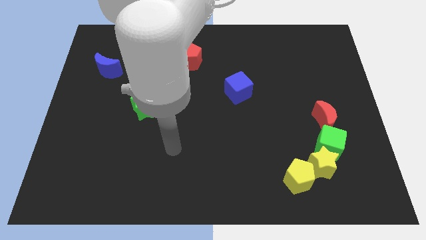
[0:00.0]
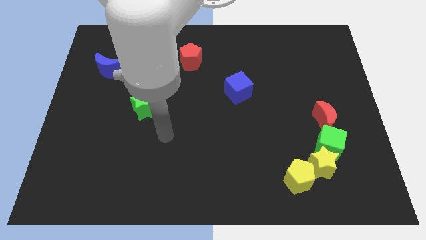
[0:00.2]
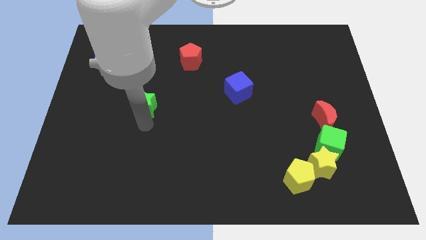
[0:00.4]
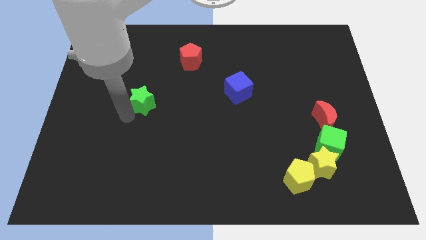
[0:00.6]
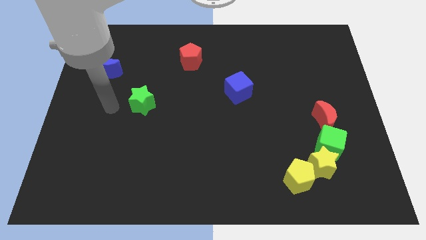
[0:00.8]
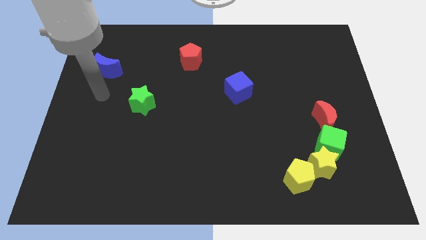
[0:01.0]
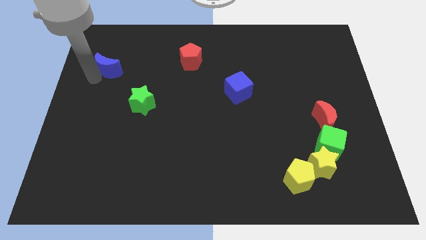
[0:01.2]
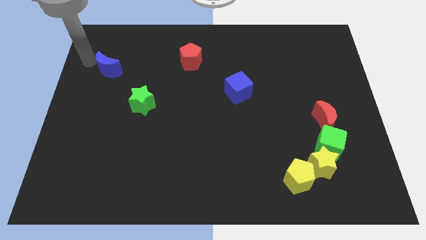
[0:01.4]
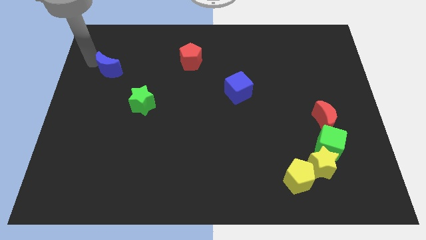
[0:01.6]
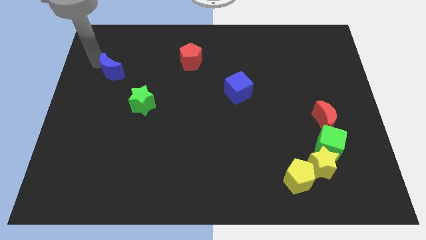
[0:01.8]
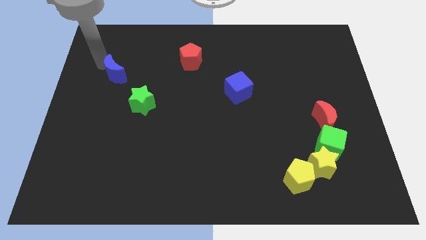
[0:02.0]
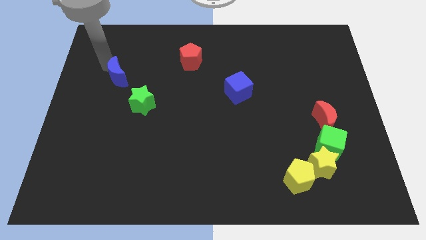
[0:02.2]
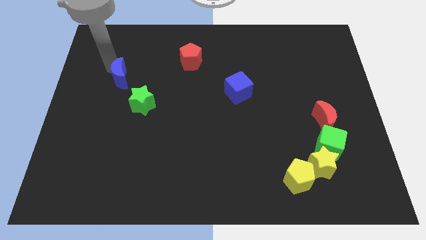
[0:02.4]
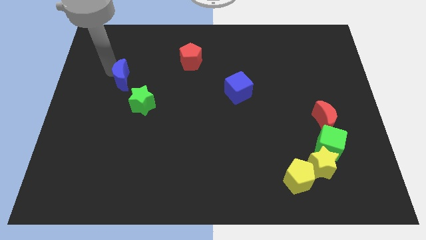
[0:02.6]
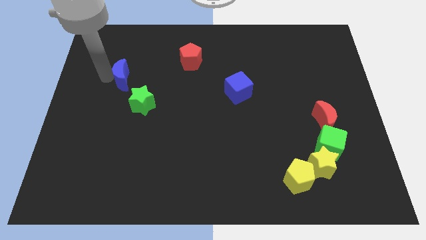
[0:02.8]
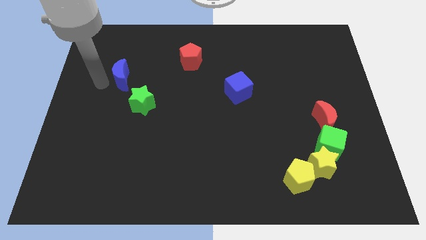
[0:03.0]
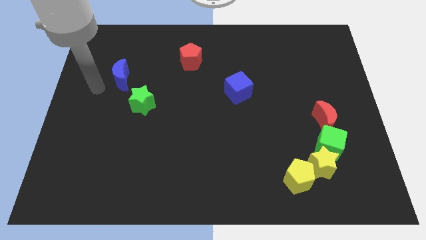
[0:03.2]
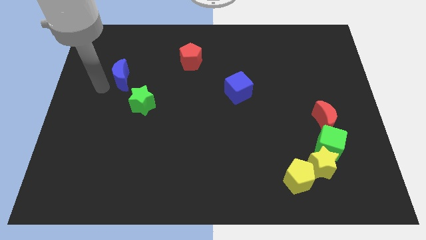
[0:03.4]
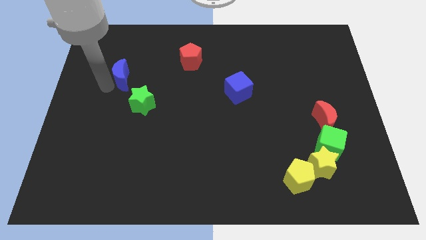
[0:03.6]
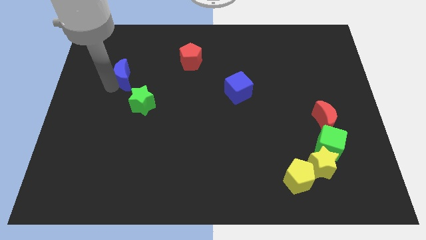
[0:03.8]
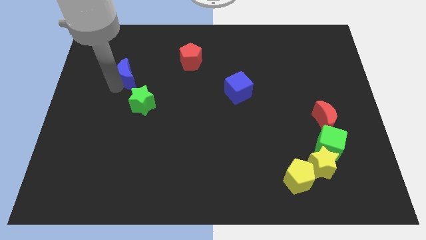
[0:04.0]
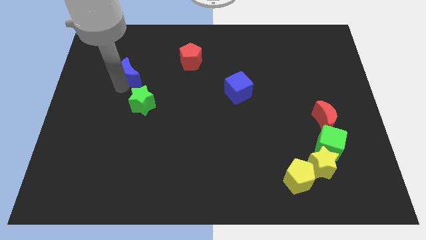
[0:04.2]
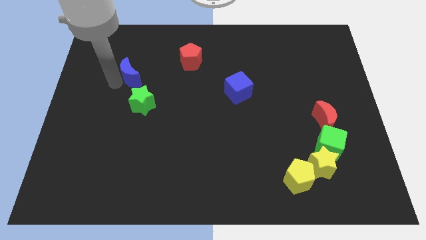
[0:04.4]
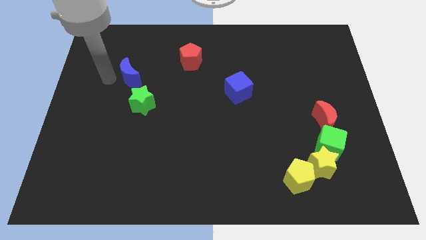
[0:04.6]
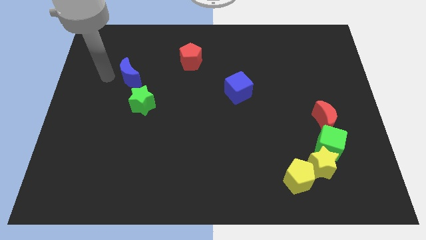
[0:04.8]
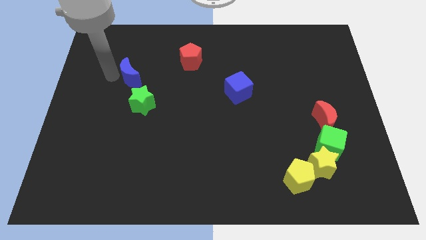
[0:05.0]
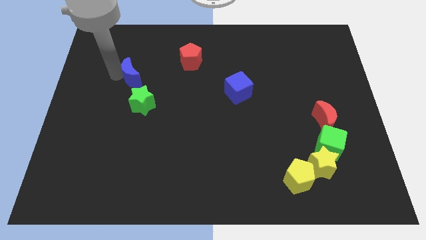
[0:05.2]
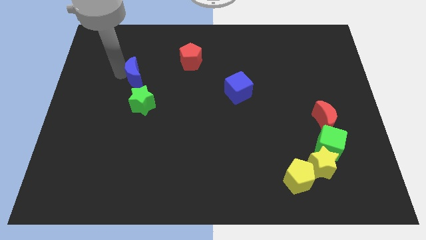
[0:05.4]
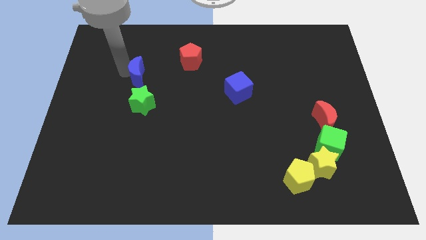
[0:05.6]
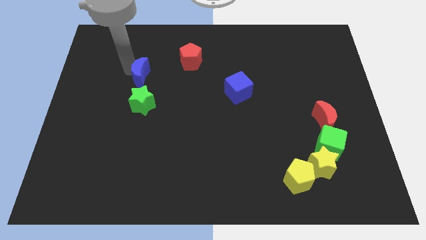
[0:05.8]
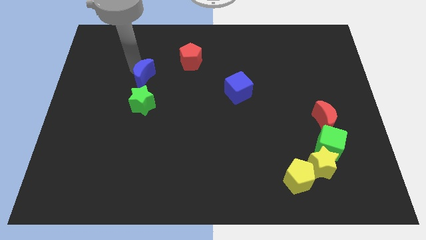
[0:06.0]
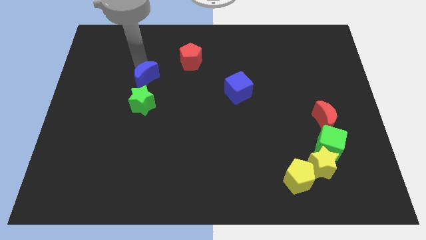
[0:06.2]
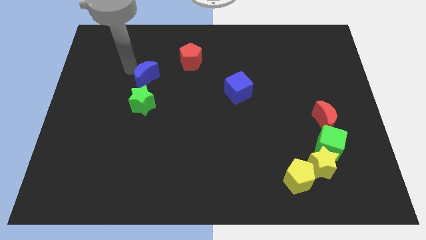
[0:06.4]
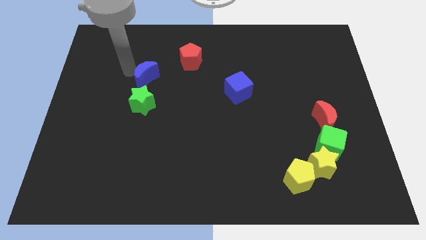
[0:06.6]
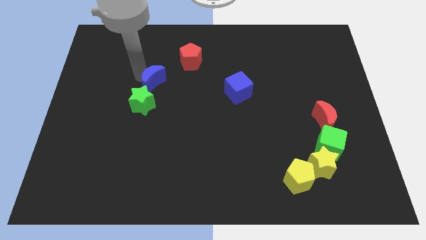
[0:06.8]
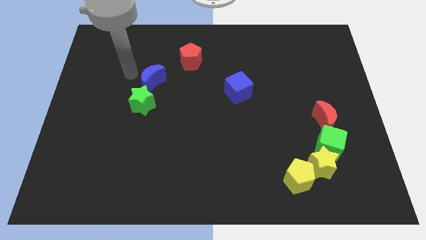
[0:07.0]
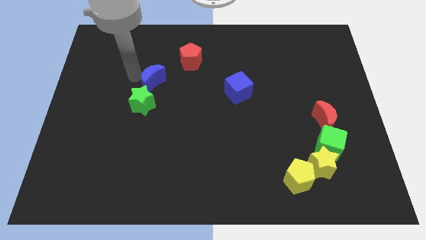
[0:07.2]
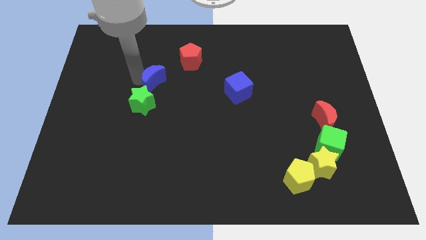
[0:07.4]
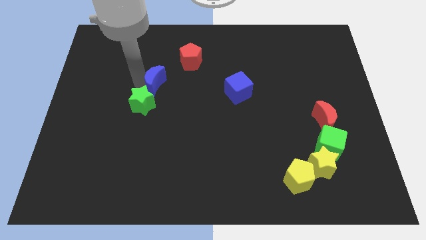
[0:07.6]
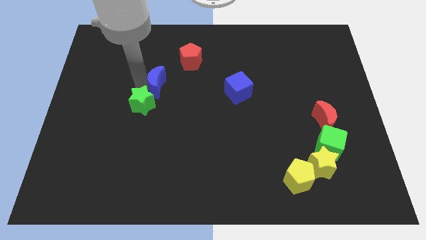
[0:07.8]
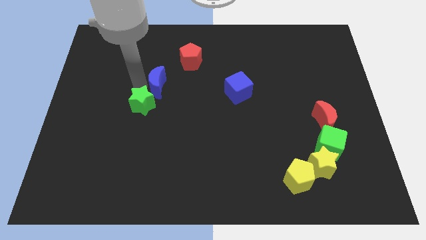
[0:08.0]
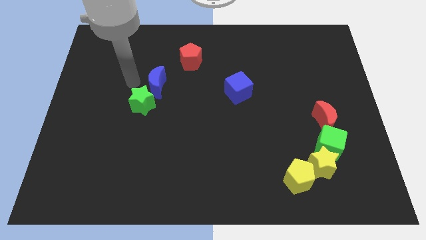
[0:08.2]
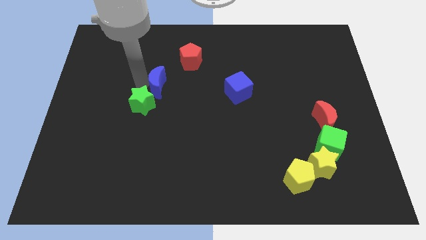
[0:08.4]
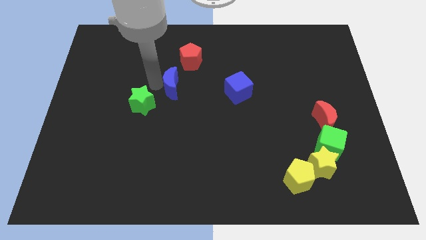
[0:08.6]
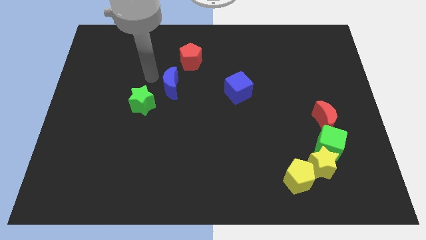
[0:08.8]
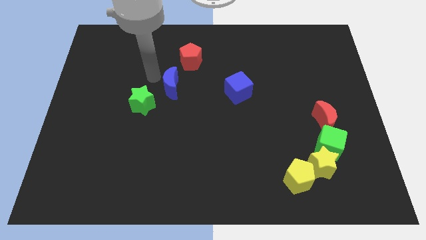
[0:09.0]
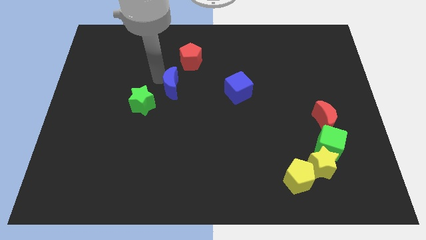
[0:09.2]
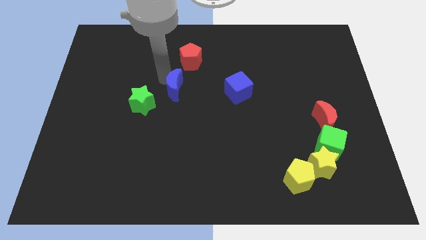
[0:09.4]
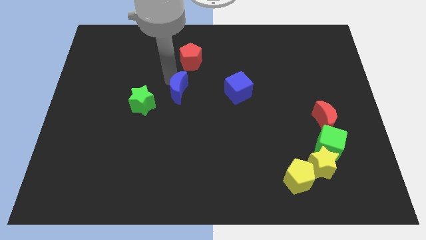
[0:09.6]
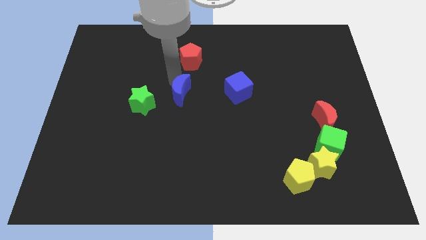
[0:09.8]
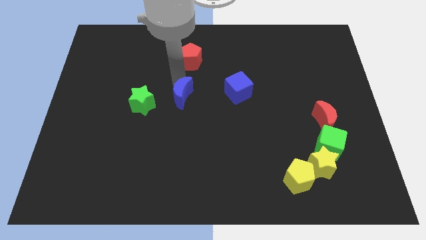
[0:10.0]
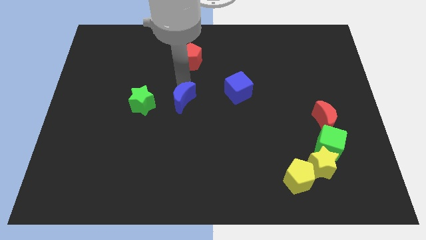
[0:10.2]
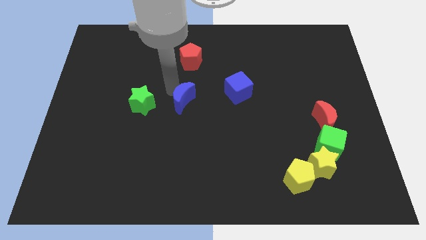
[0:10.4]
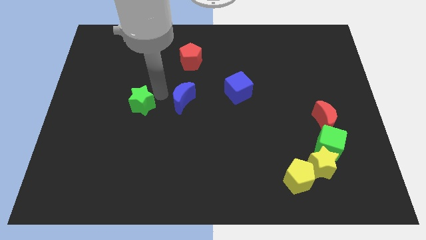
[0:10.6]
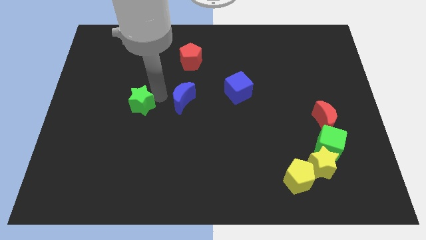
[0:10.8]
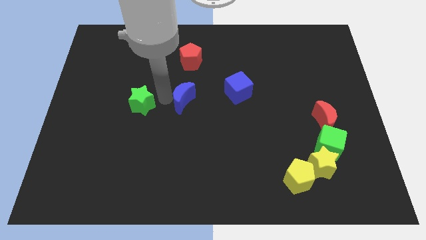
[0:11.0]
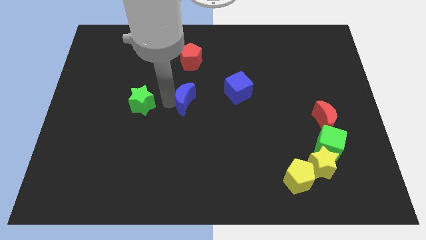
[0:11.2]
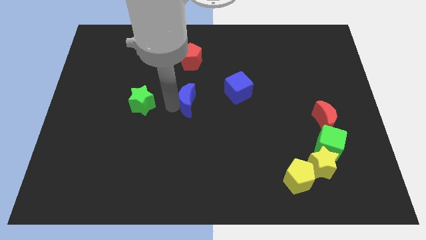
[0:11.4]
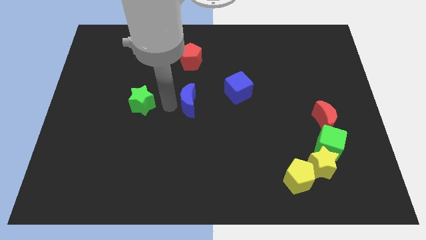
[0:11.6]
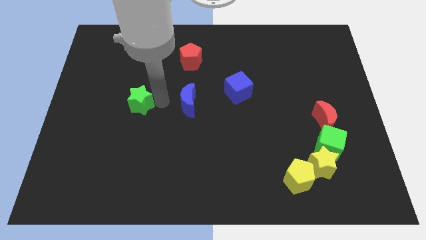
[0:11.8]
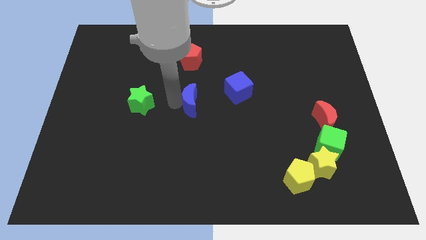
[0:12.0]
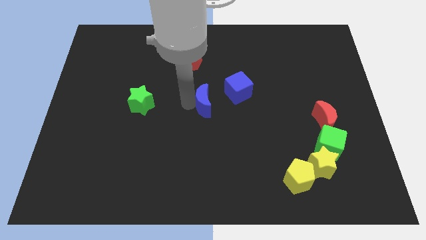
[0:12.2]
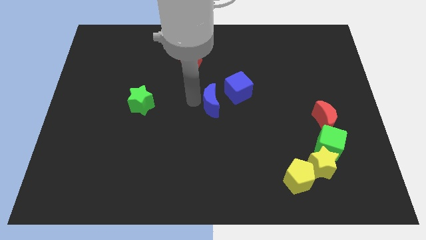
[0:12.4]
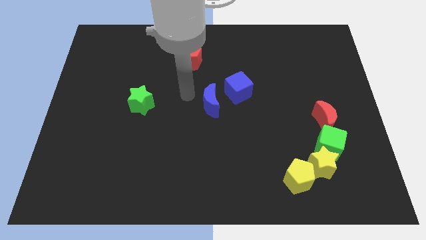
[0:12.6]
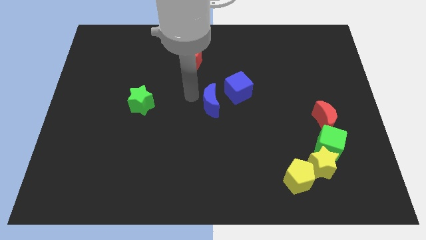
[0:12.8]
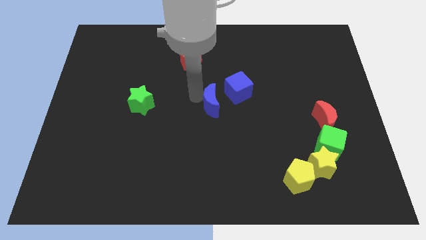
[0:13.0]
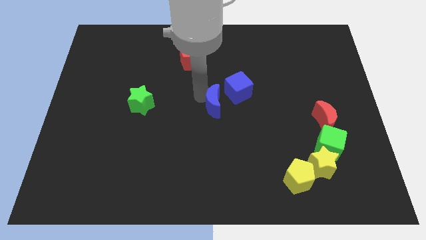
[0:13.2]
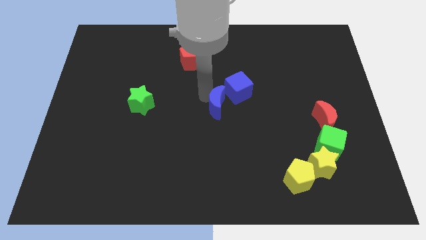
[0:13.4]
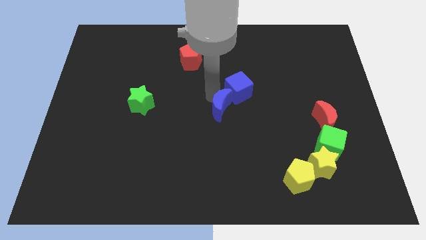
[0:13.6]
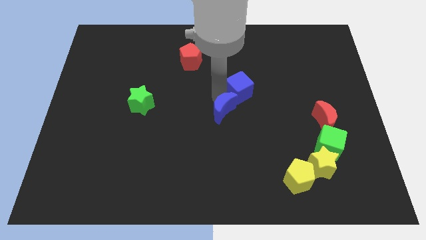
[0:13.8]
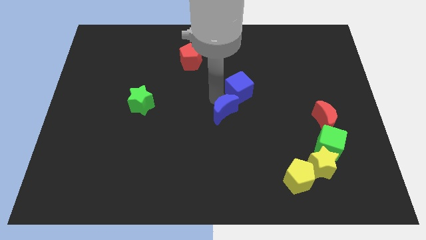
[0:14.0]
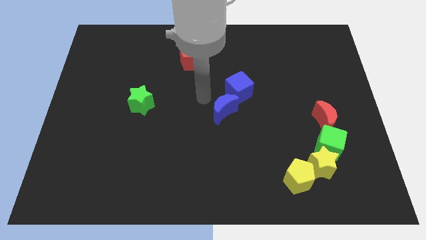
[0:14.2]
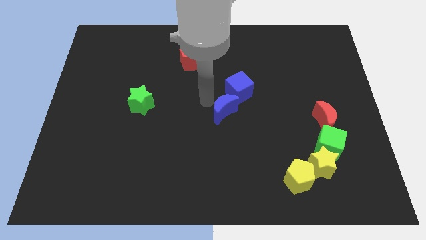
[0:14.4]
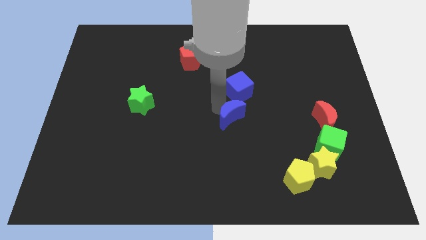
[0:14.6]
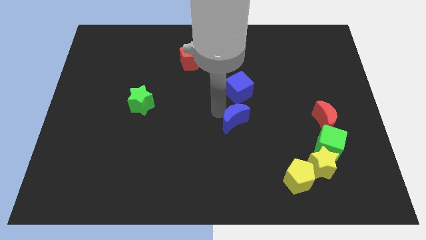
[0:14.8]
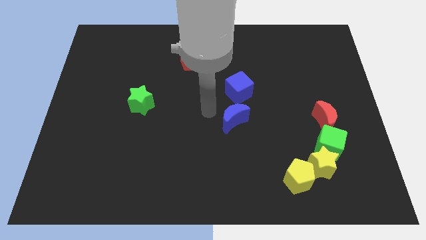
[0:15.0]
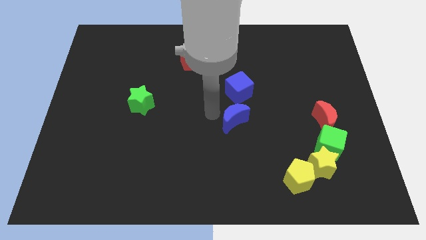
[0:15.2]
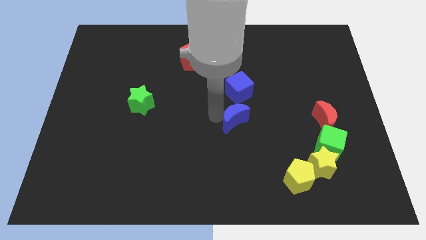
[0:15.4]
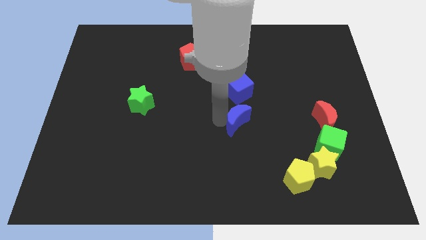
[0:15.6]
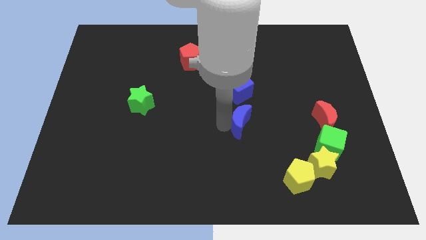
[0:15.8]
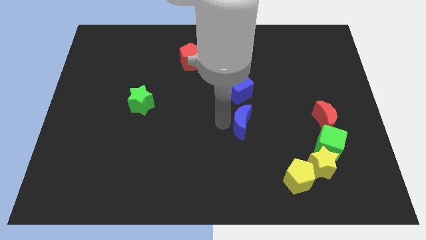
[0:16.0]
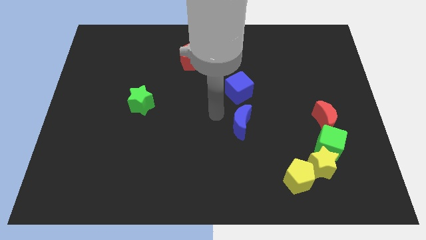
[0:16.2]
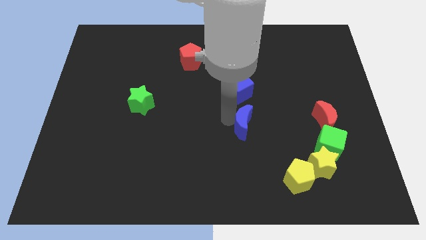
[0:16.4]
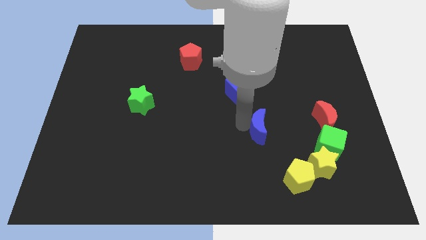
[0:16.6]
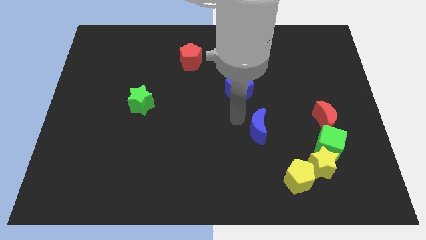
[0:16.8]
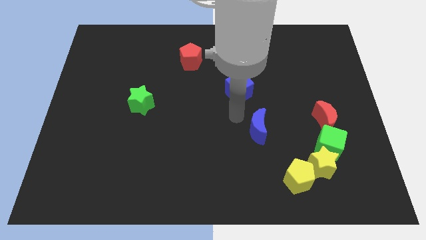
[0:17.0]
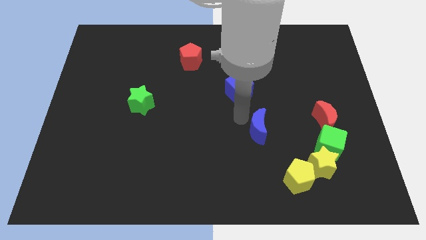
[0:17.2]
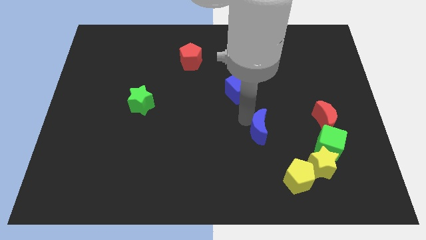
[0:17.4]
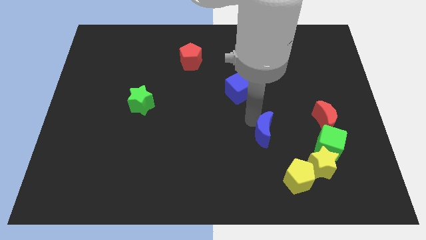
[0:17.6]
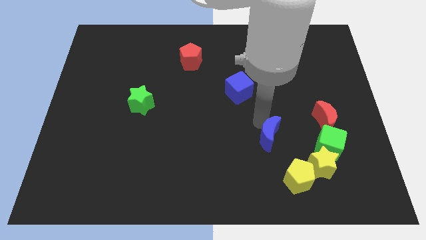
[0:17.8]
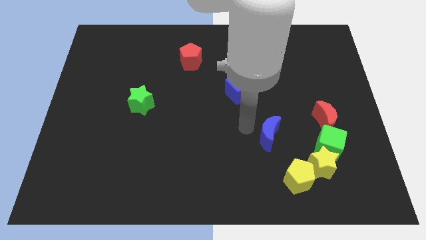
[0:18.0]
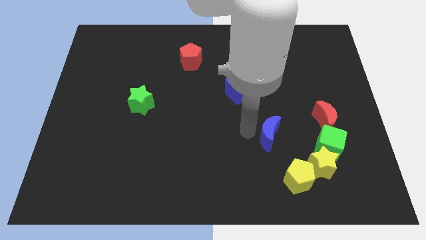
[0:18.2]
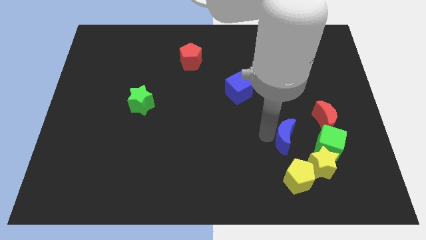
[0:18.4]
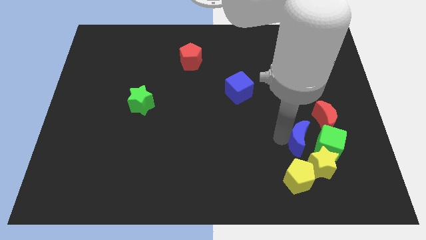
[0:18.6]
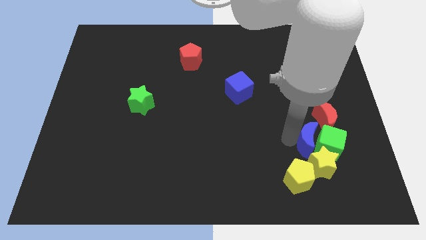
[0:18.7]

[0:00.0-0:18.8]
push the blue moon close to the green cube
